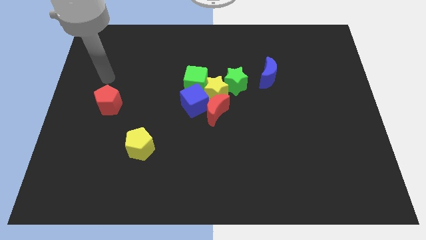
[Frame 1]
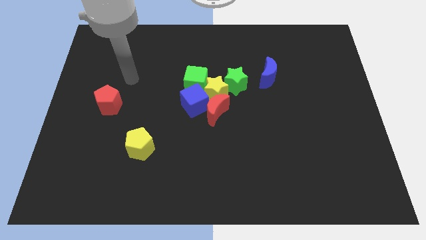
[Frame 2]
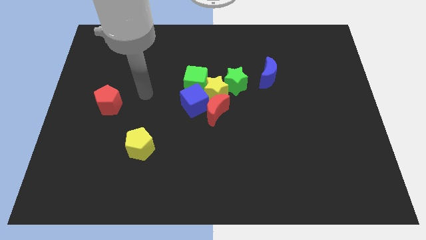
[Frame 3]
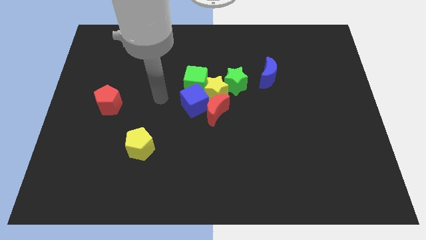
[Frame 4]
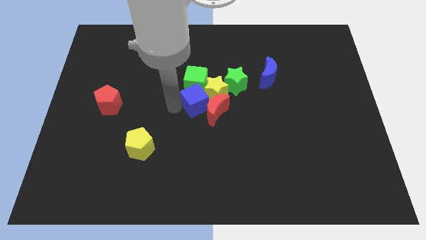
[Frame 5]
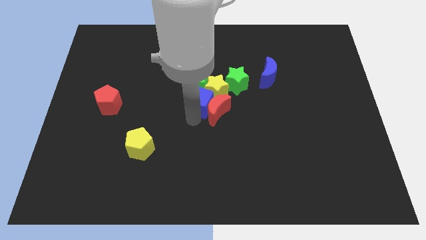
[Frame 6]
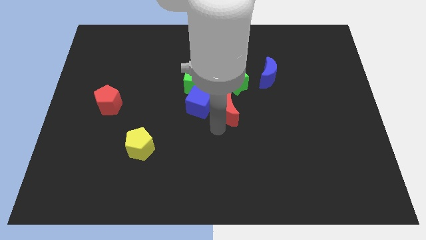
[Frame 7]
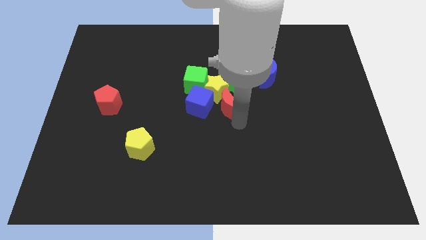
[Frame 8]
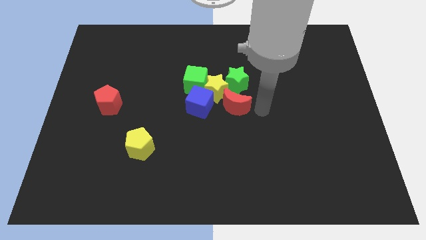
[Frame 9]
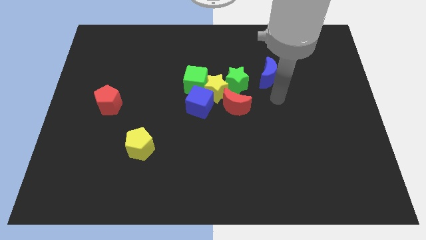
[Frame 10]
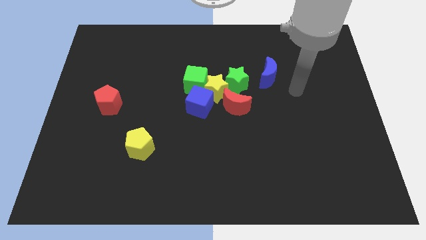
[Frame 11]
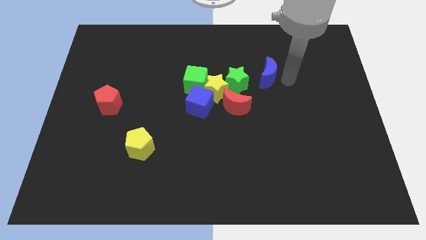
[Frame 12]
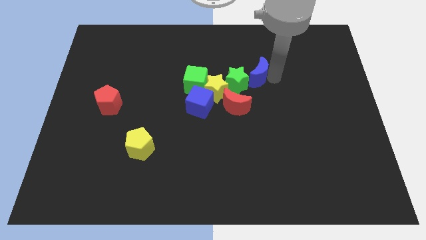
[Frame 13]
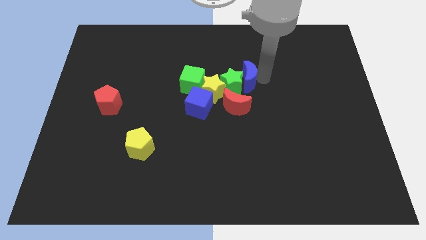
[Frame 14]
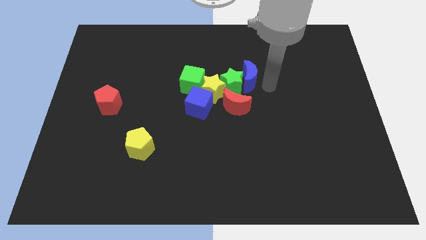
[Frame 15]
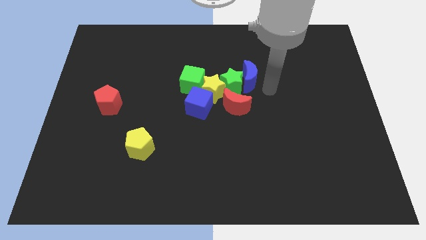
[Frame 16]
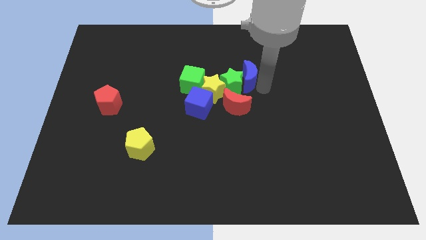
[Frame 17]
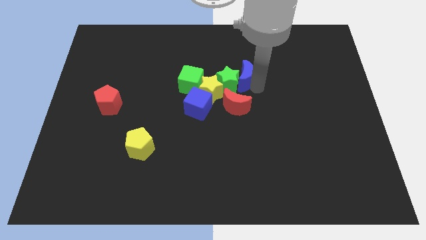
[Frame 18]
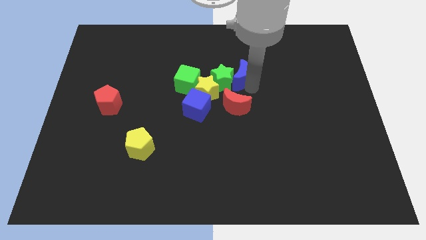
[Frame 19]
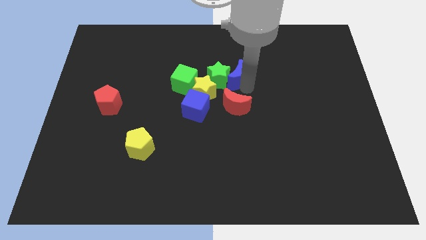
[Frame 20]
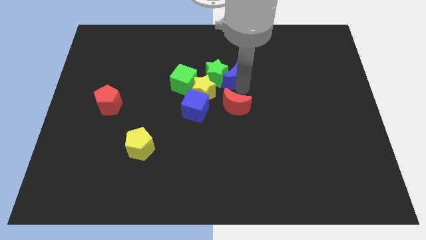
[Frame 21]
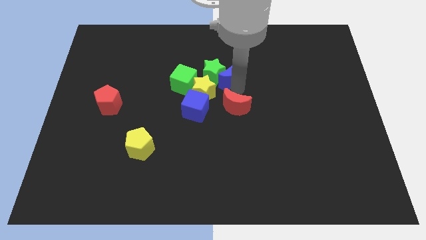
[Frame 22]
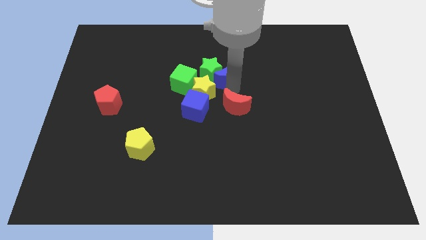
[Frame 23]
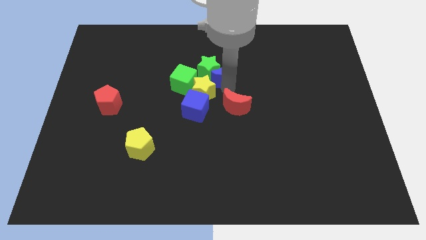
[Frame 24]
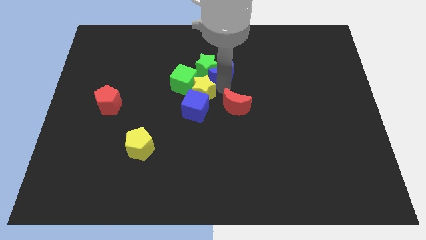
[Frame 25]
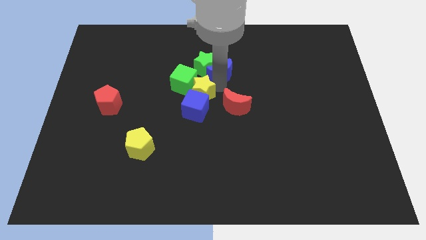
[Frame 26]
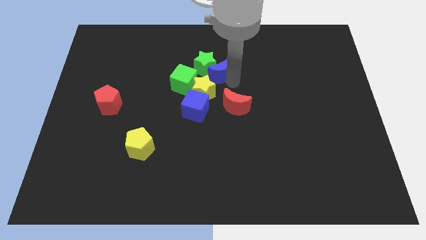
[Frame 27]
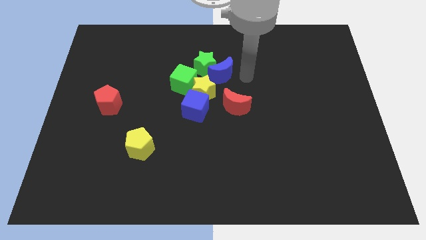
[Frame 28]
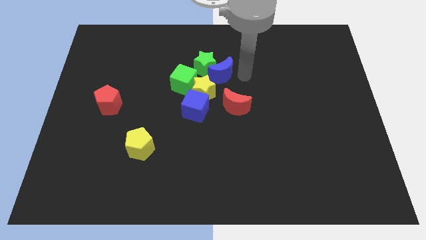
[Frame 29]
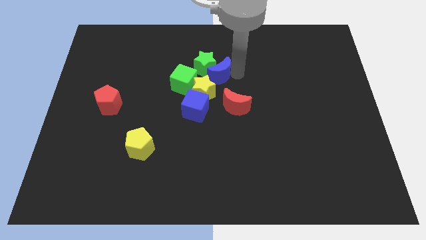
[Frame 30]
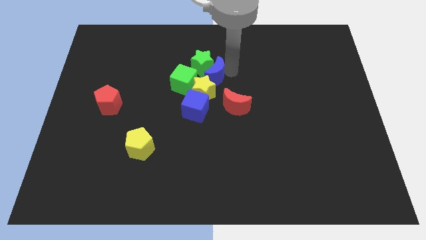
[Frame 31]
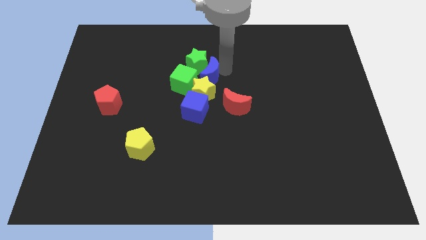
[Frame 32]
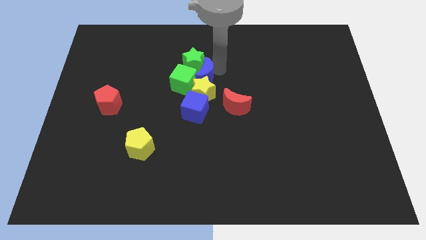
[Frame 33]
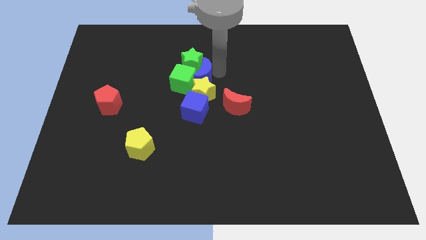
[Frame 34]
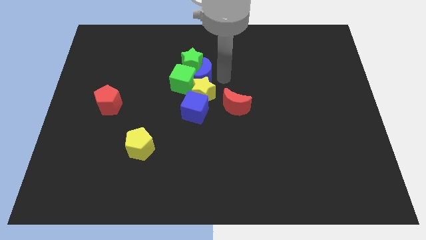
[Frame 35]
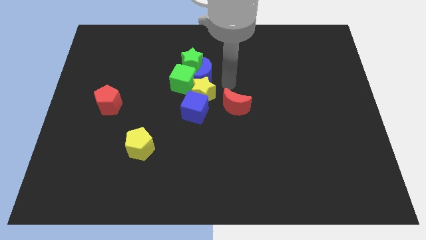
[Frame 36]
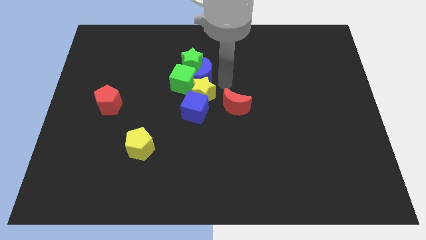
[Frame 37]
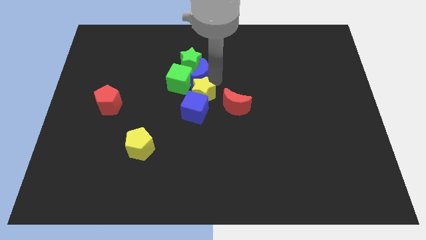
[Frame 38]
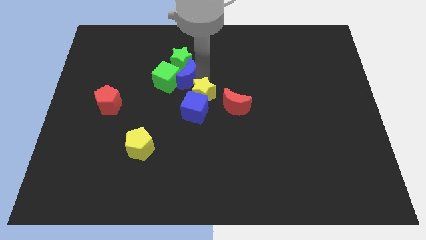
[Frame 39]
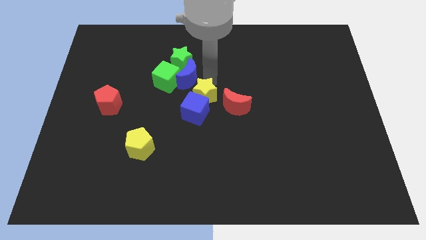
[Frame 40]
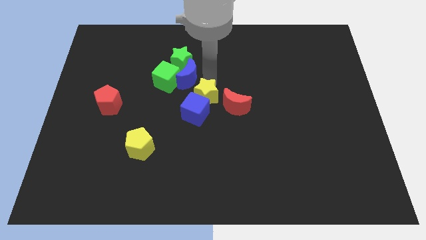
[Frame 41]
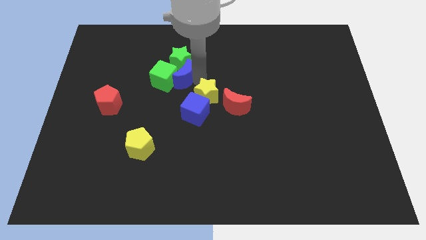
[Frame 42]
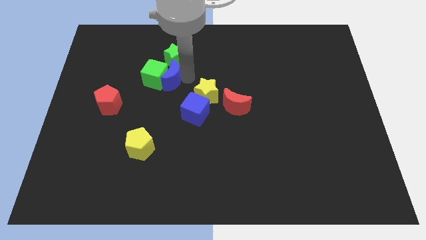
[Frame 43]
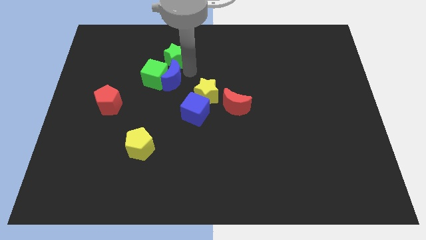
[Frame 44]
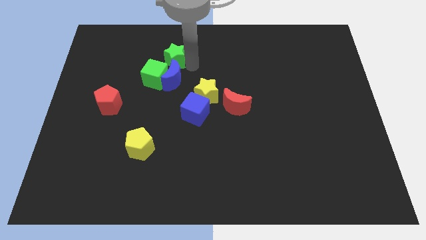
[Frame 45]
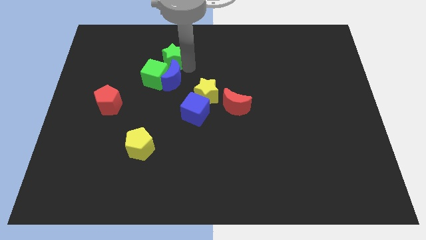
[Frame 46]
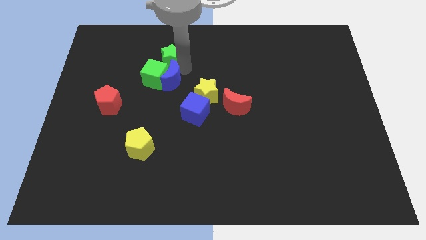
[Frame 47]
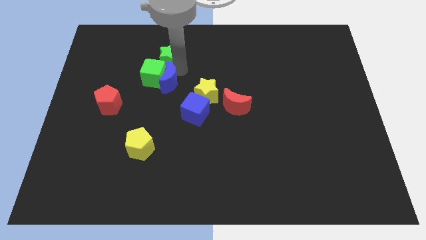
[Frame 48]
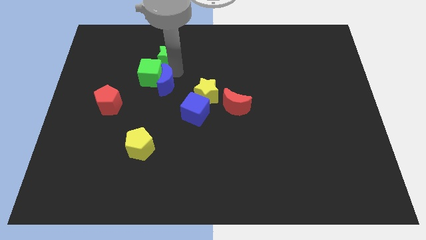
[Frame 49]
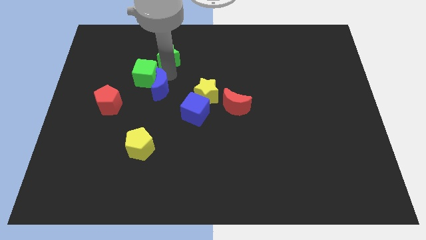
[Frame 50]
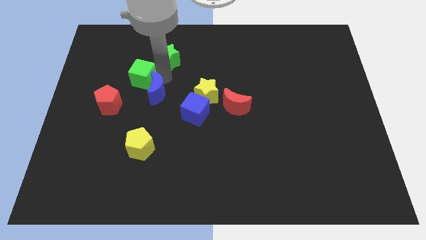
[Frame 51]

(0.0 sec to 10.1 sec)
put the blue moon to the top side of the yellow pentagon

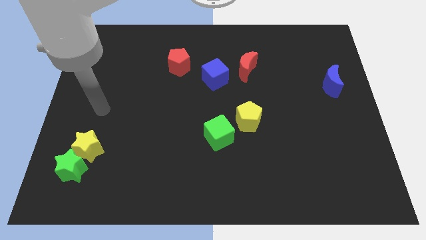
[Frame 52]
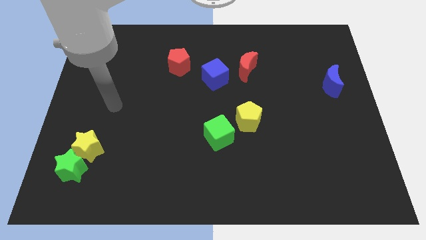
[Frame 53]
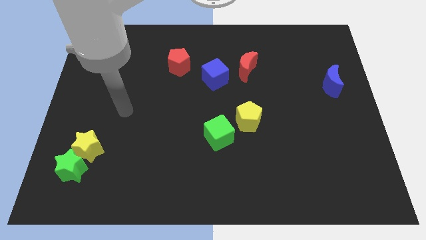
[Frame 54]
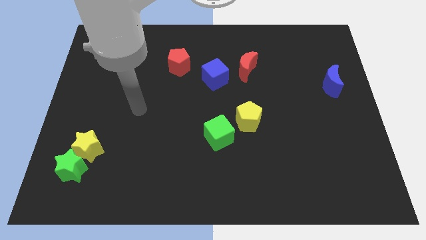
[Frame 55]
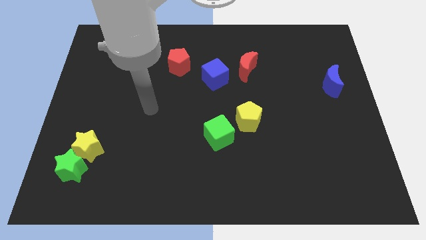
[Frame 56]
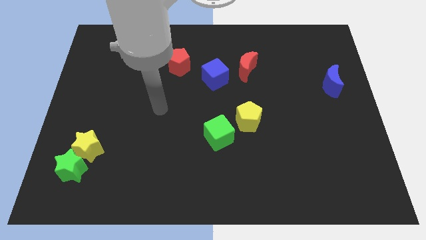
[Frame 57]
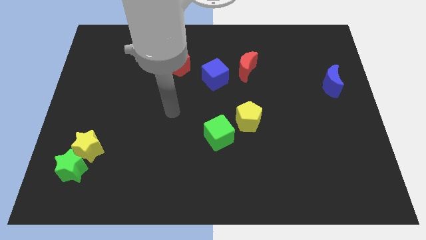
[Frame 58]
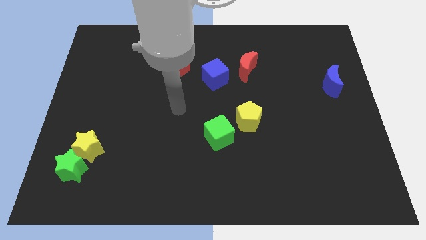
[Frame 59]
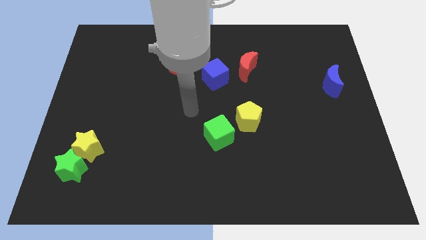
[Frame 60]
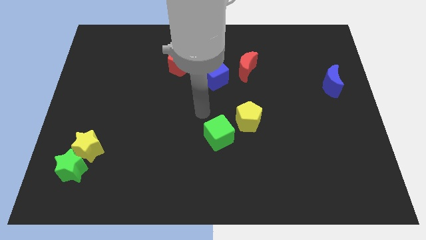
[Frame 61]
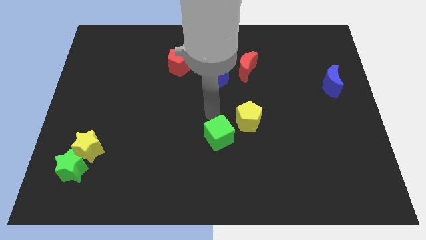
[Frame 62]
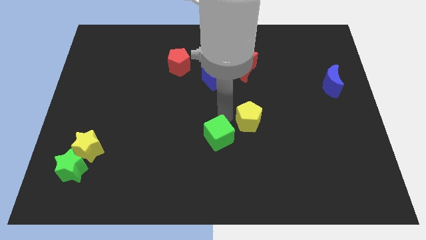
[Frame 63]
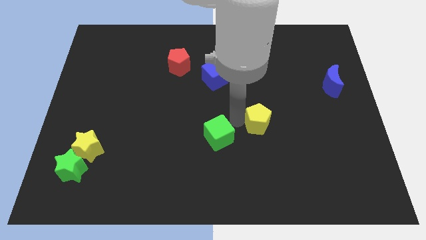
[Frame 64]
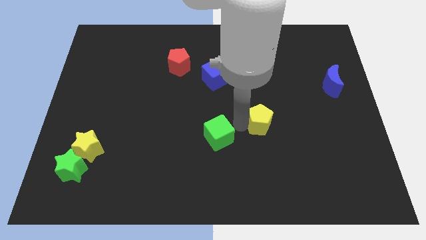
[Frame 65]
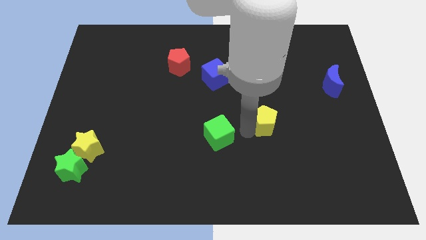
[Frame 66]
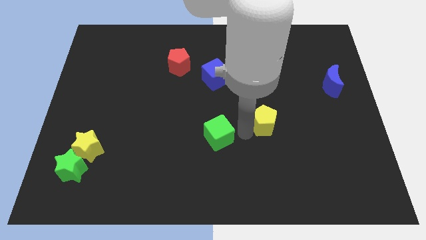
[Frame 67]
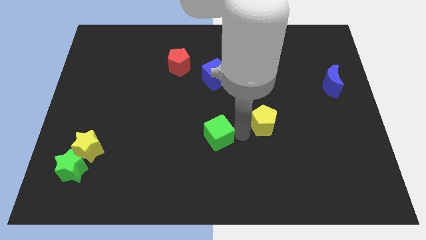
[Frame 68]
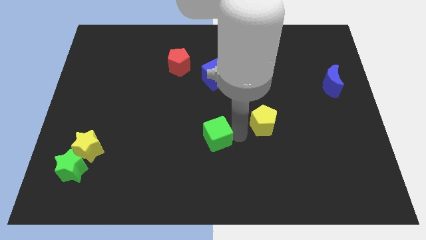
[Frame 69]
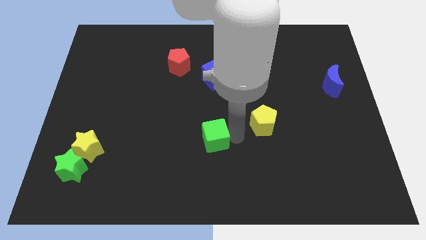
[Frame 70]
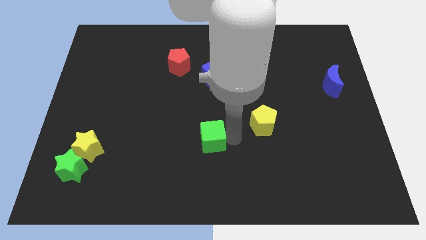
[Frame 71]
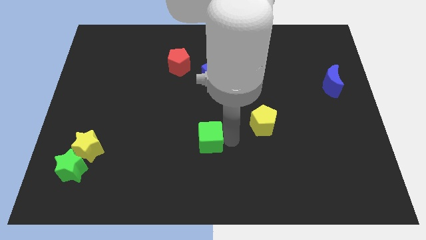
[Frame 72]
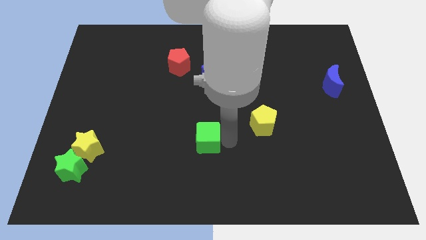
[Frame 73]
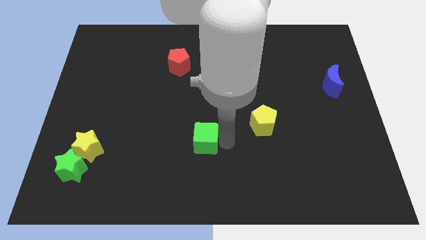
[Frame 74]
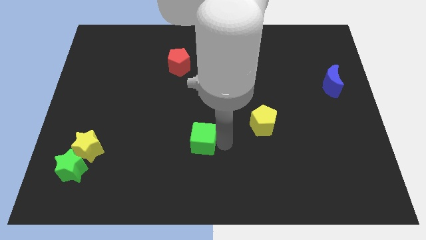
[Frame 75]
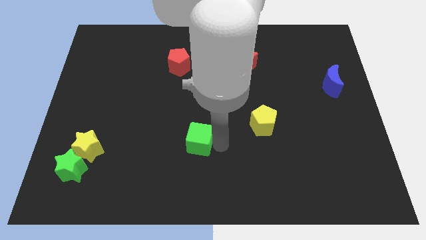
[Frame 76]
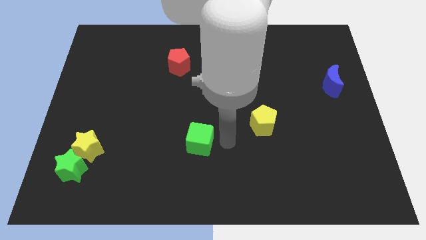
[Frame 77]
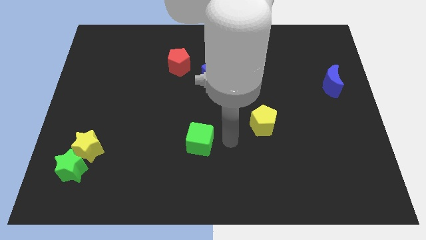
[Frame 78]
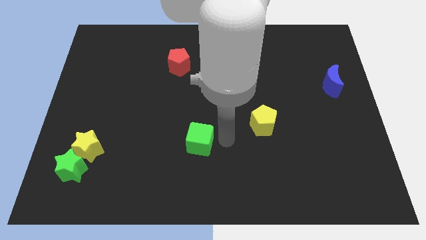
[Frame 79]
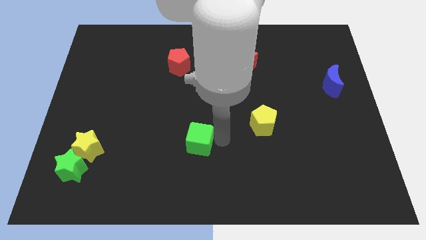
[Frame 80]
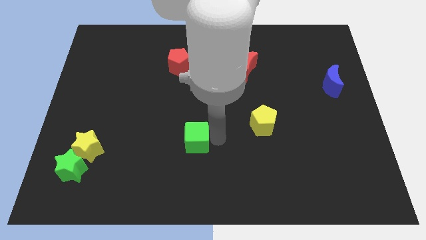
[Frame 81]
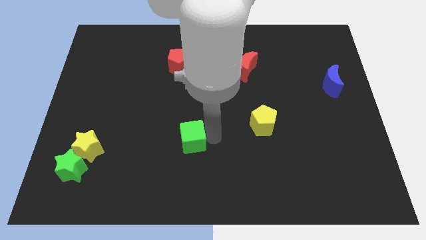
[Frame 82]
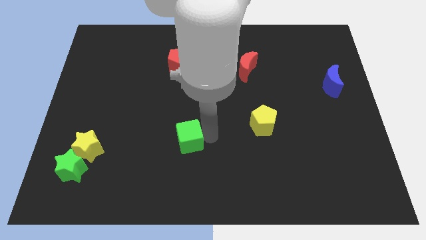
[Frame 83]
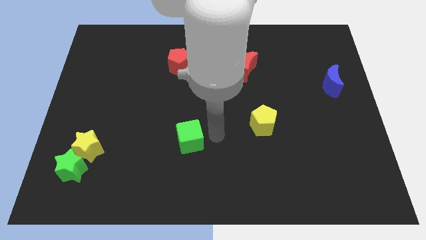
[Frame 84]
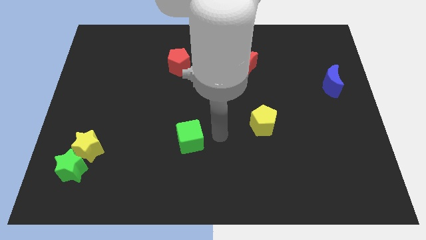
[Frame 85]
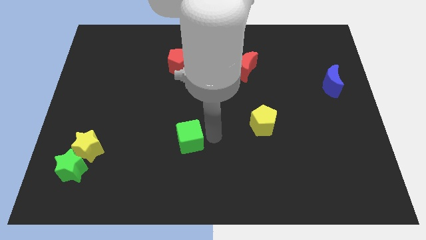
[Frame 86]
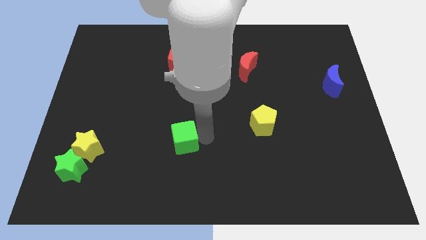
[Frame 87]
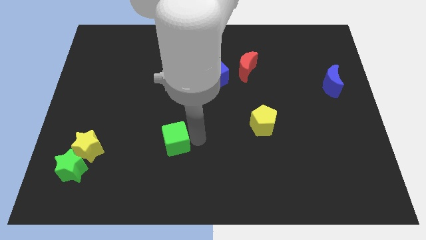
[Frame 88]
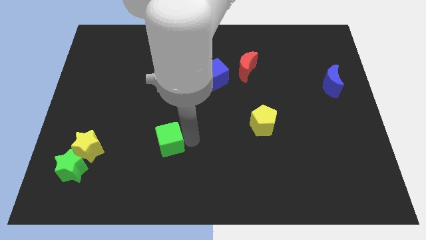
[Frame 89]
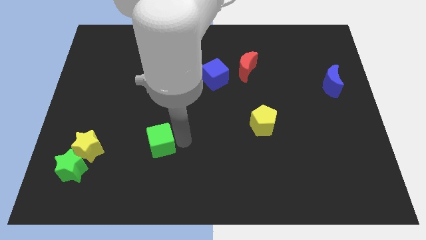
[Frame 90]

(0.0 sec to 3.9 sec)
push the green cube right of the yellow star
